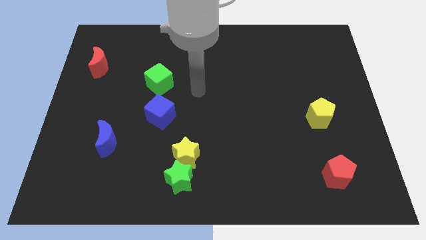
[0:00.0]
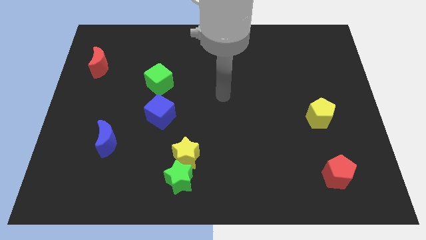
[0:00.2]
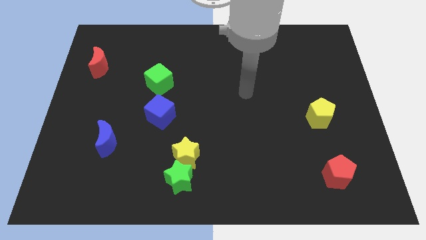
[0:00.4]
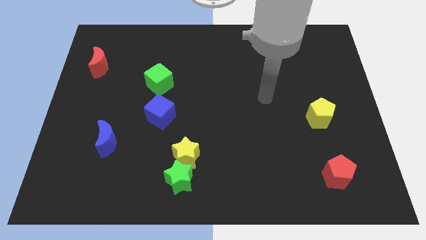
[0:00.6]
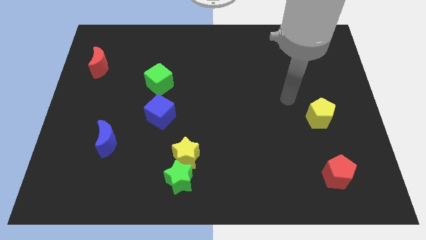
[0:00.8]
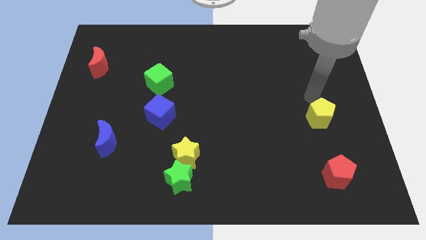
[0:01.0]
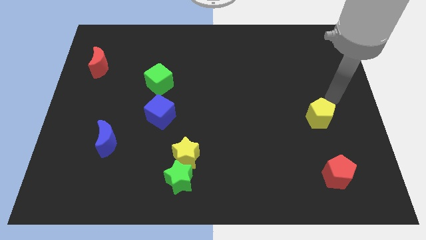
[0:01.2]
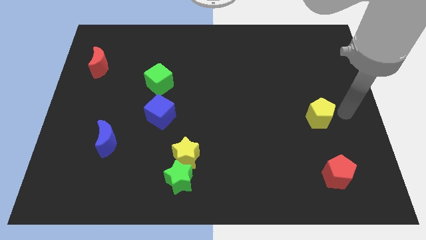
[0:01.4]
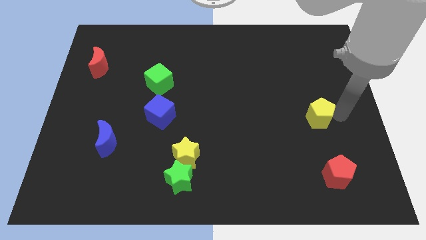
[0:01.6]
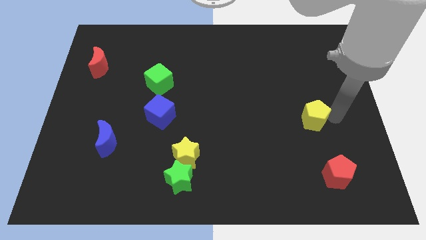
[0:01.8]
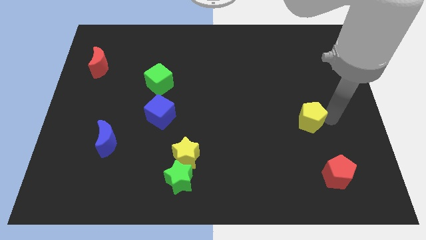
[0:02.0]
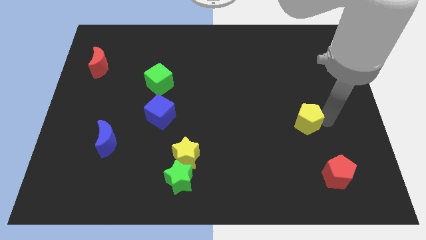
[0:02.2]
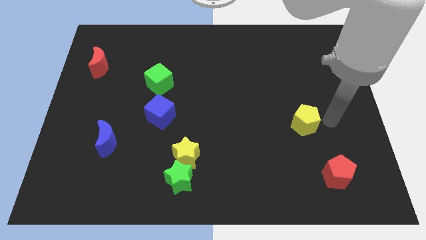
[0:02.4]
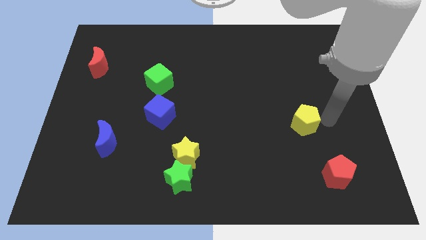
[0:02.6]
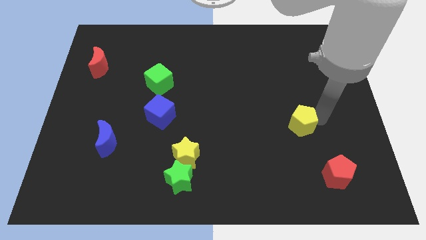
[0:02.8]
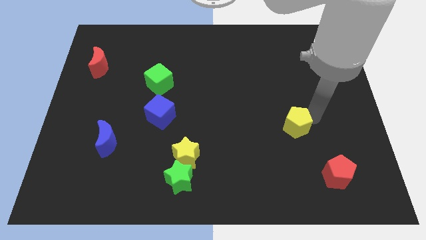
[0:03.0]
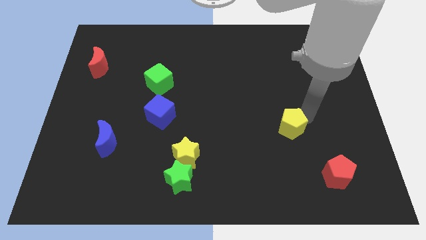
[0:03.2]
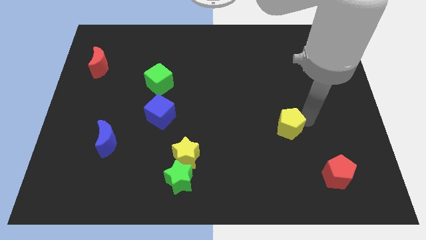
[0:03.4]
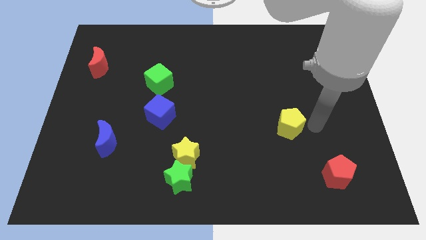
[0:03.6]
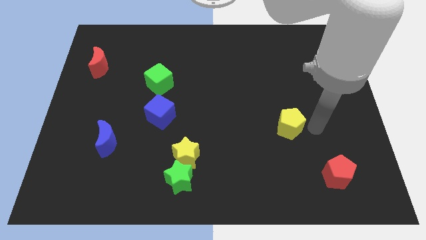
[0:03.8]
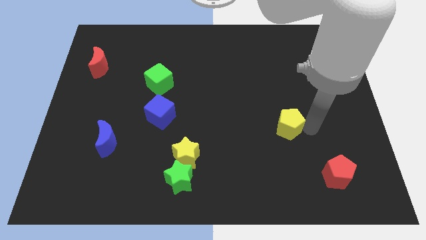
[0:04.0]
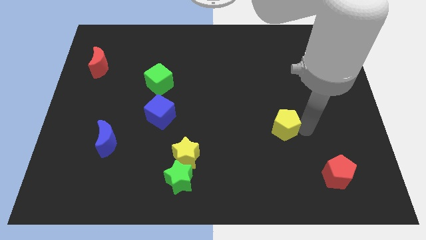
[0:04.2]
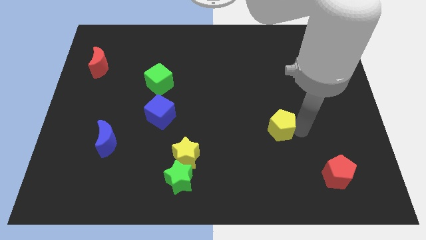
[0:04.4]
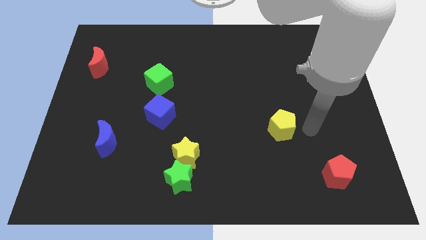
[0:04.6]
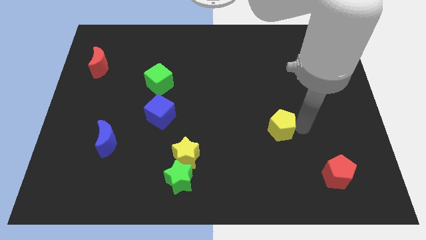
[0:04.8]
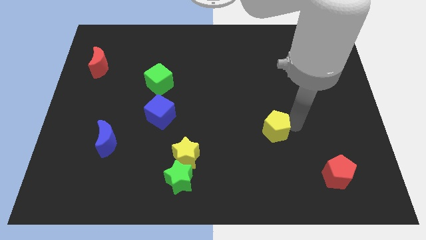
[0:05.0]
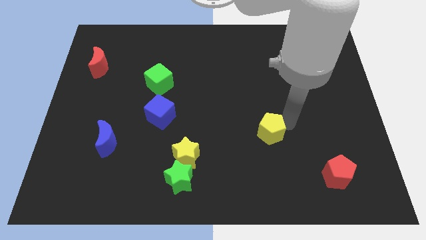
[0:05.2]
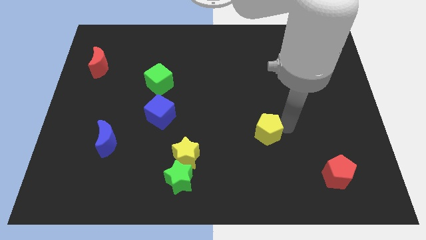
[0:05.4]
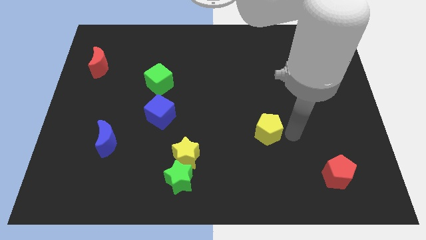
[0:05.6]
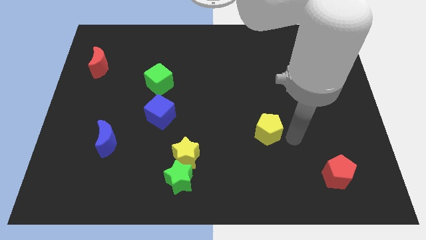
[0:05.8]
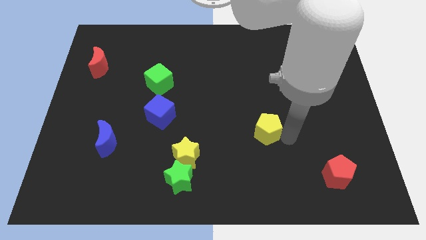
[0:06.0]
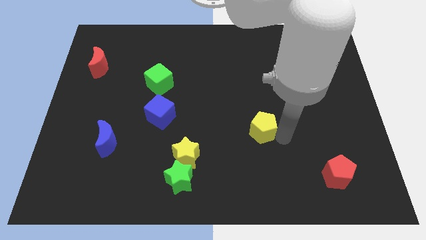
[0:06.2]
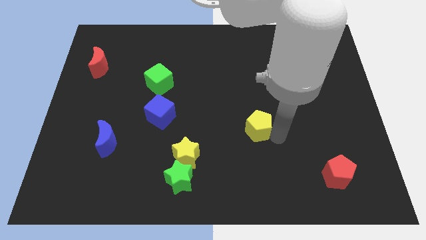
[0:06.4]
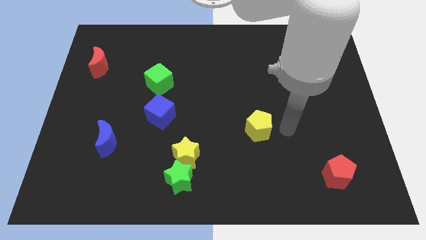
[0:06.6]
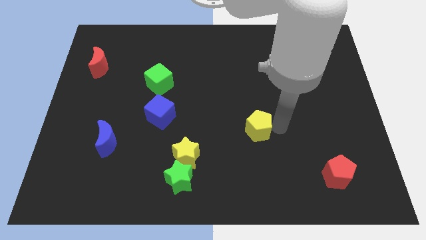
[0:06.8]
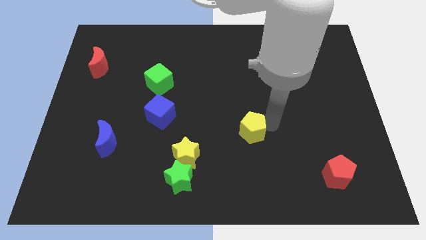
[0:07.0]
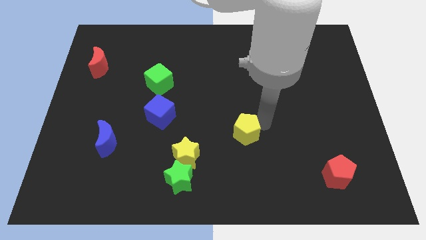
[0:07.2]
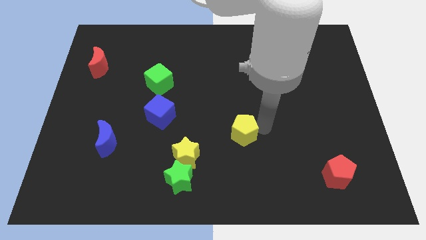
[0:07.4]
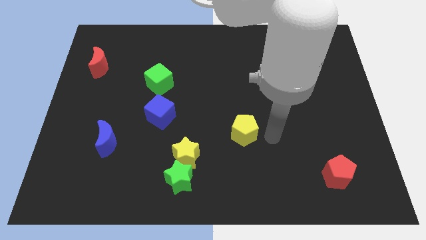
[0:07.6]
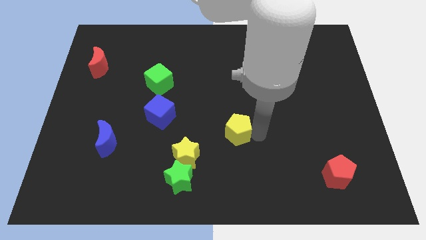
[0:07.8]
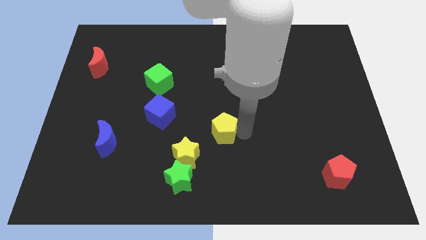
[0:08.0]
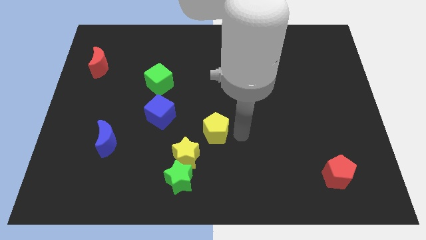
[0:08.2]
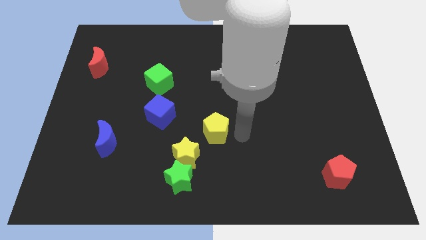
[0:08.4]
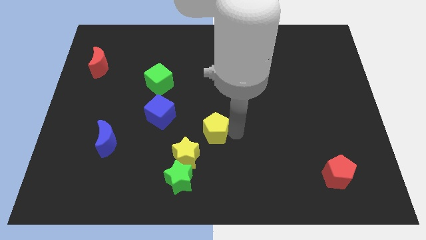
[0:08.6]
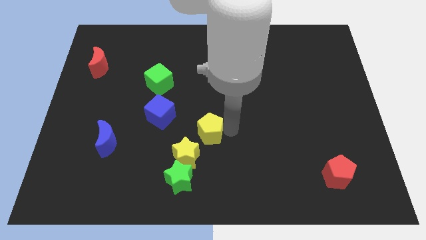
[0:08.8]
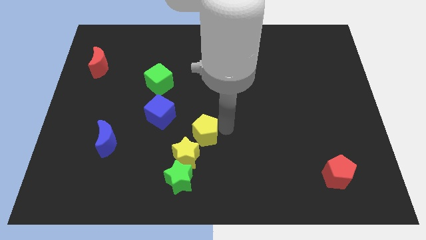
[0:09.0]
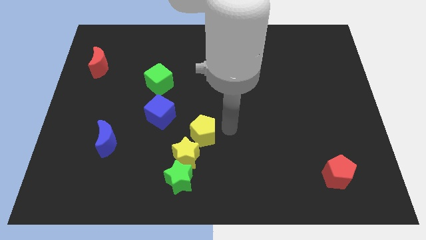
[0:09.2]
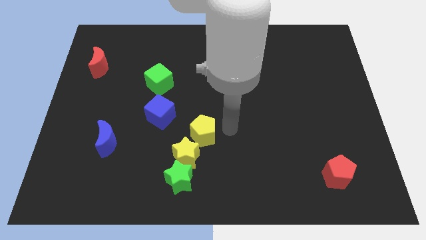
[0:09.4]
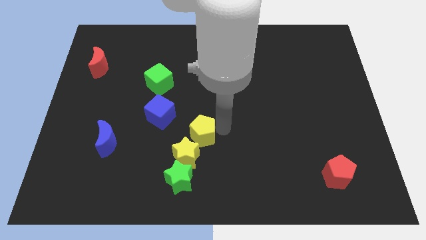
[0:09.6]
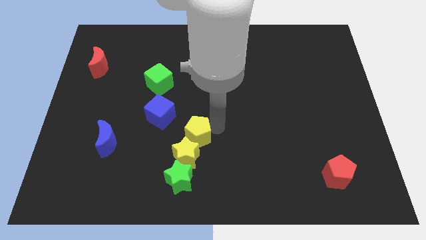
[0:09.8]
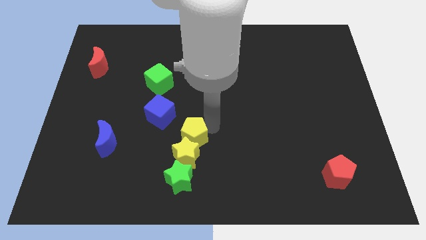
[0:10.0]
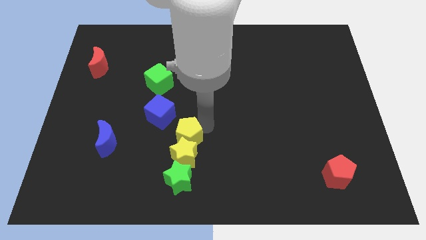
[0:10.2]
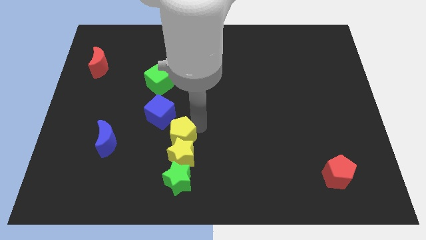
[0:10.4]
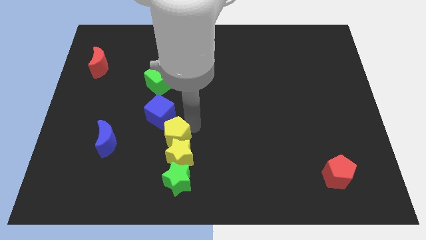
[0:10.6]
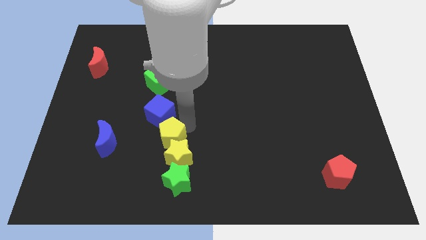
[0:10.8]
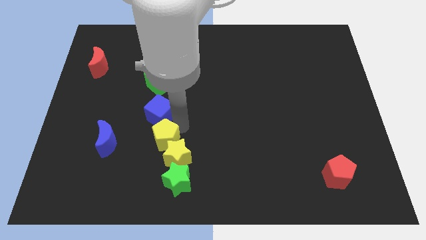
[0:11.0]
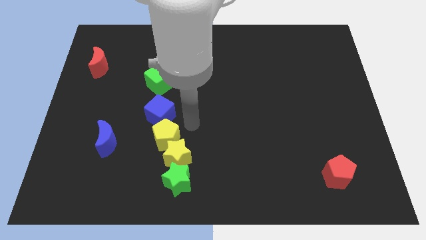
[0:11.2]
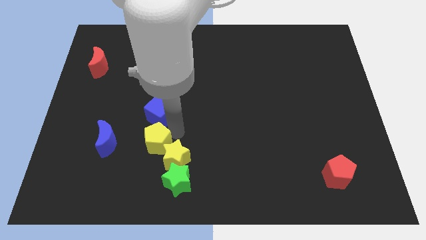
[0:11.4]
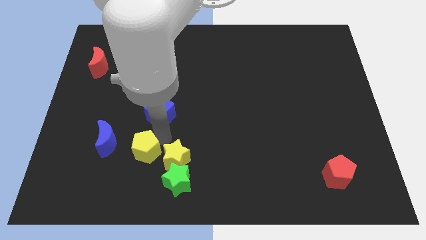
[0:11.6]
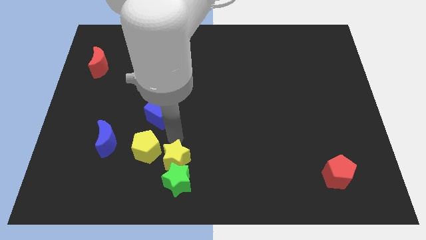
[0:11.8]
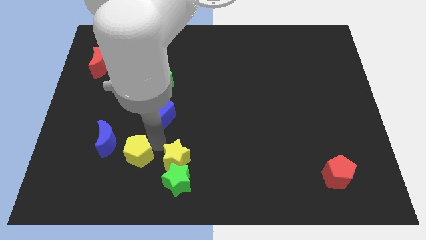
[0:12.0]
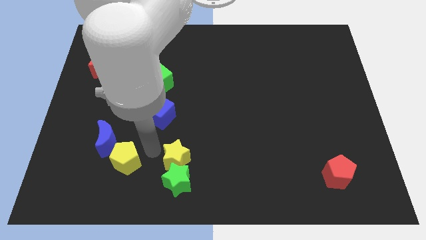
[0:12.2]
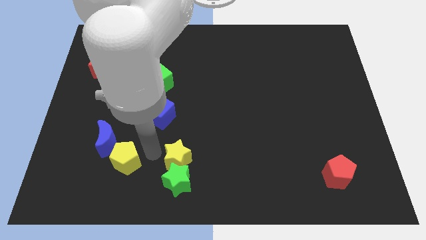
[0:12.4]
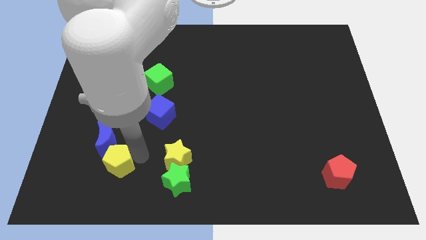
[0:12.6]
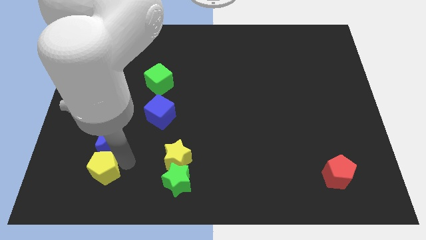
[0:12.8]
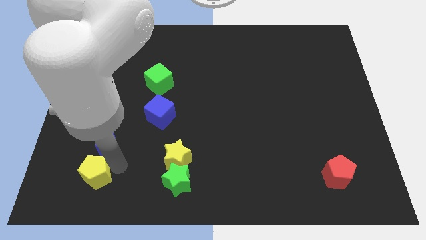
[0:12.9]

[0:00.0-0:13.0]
slide the yellow pentagon to the bottom left of the blue moon
